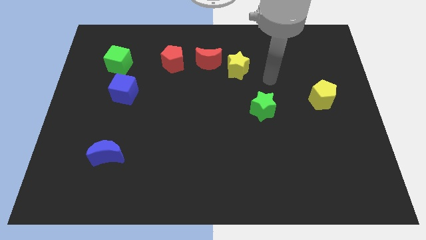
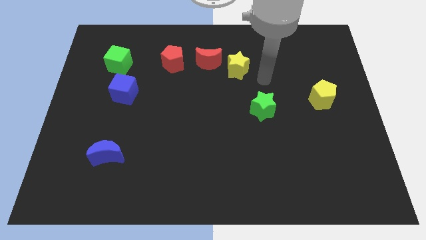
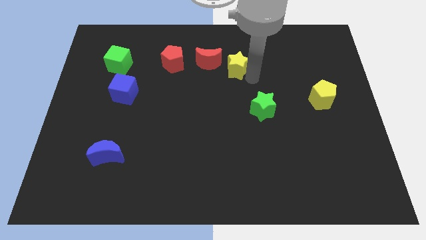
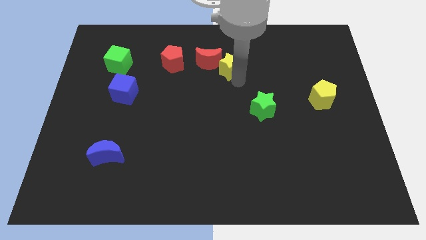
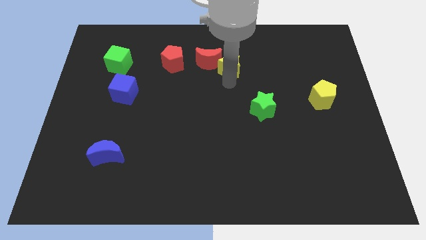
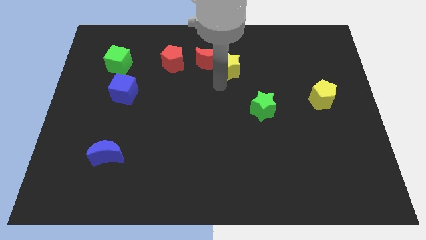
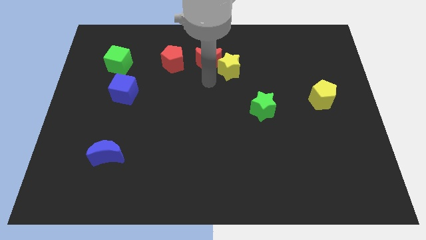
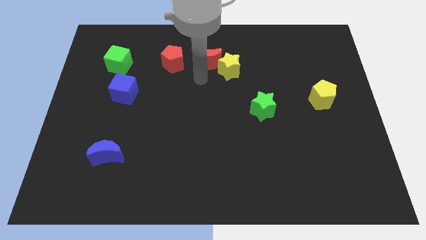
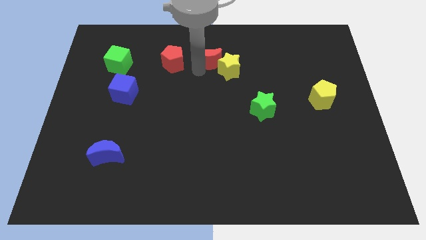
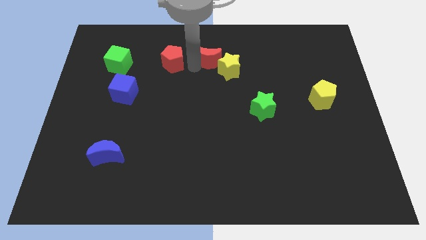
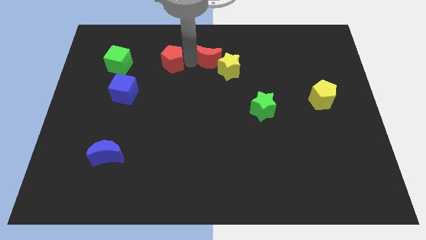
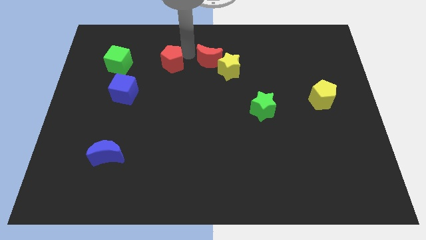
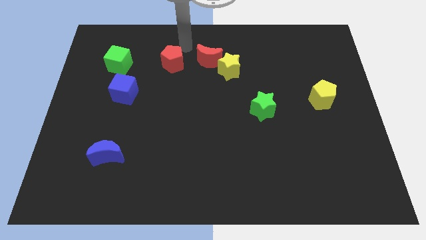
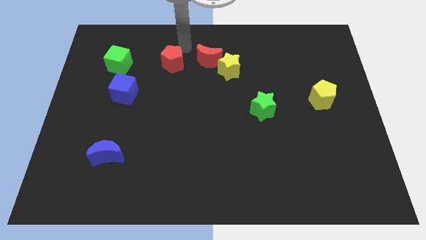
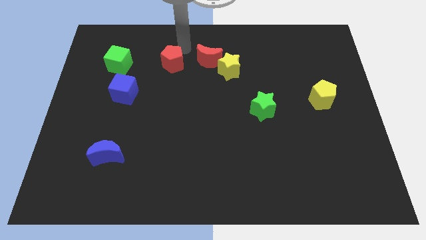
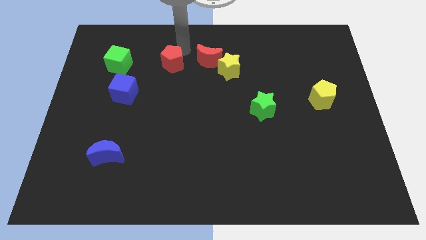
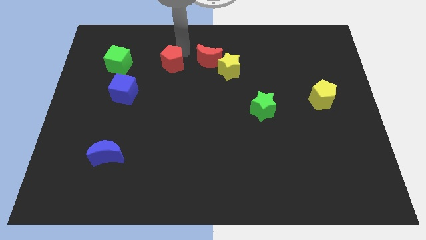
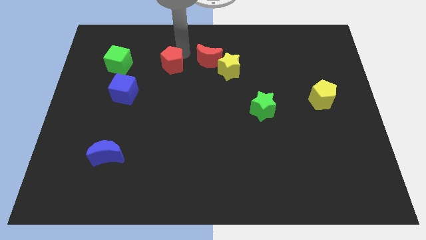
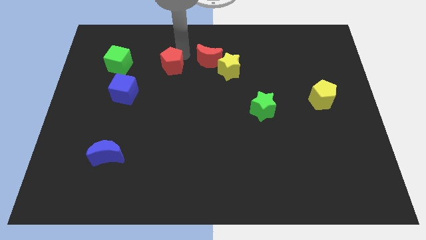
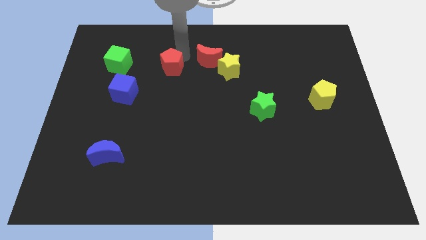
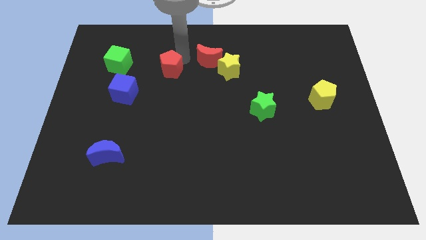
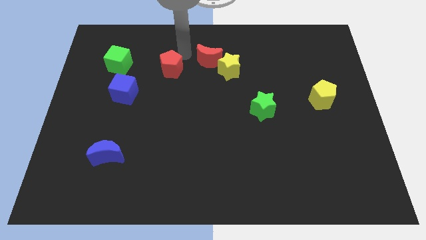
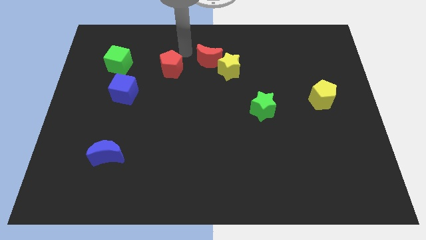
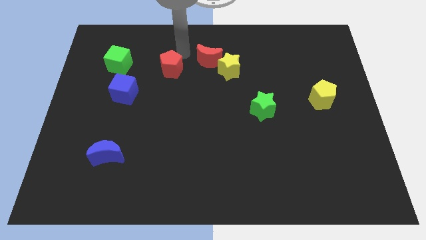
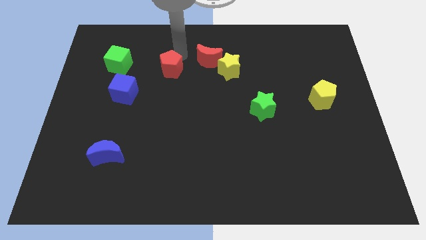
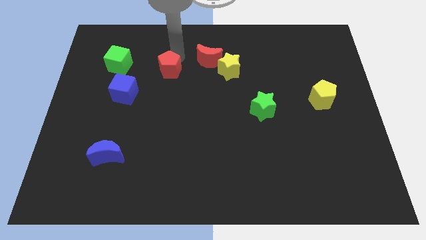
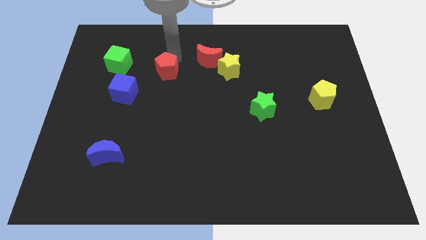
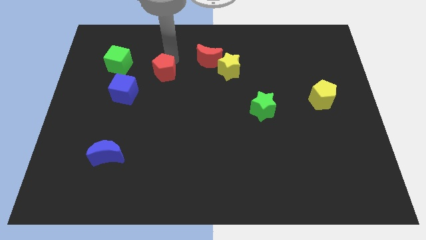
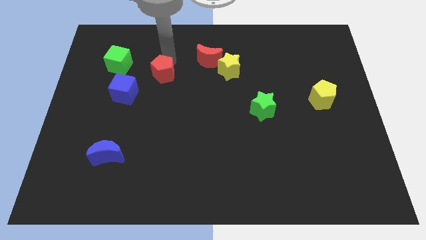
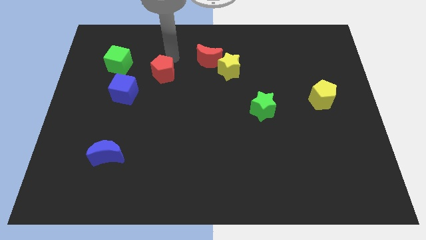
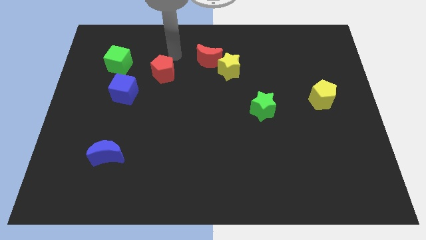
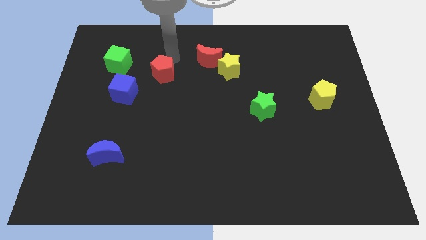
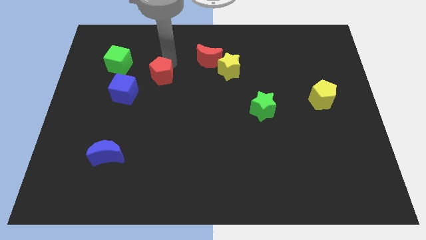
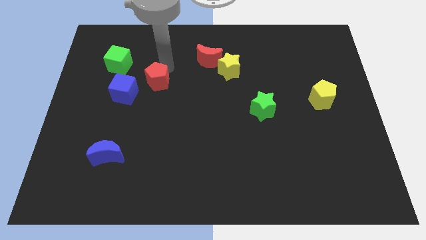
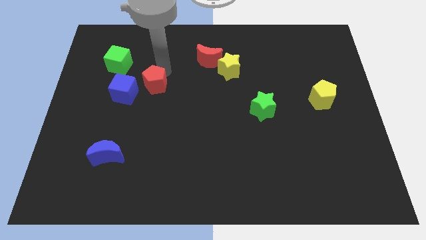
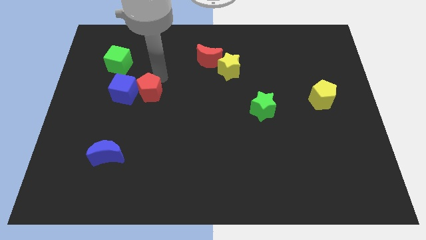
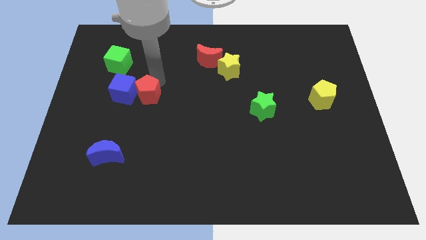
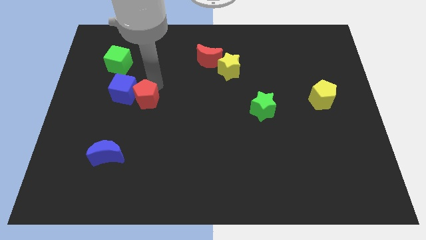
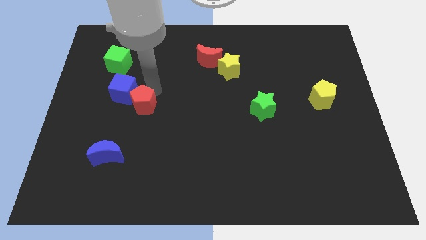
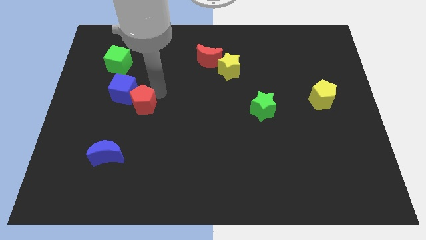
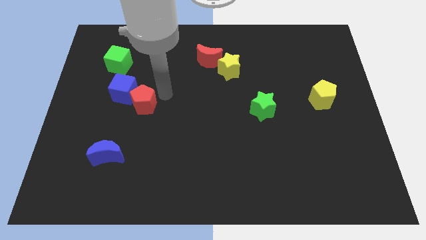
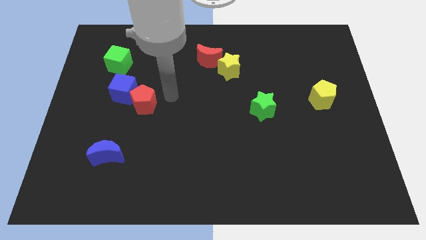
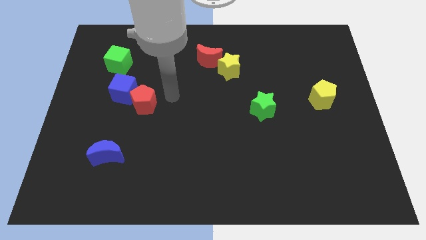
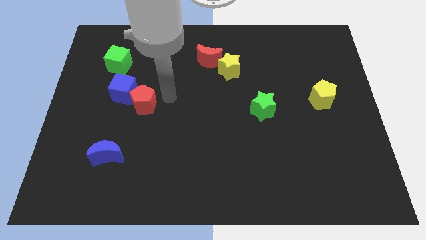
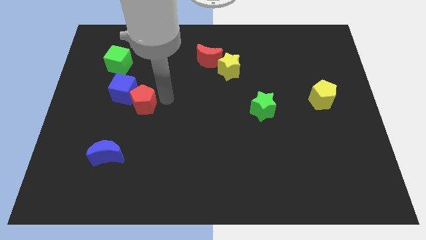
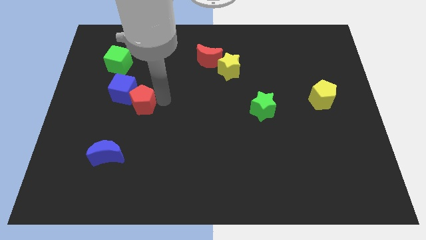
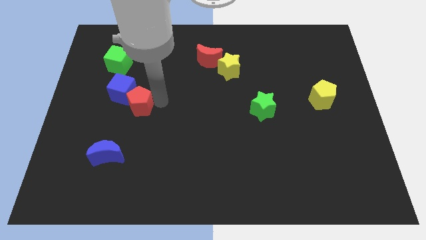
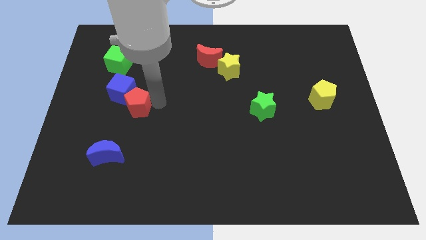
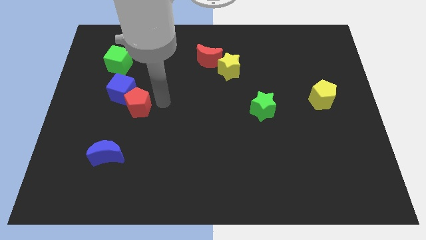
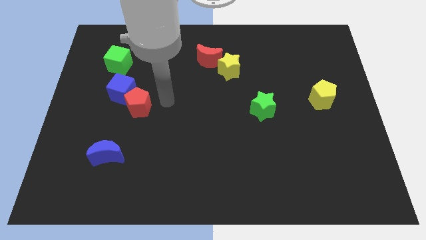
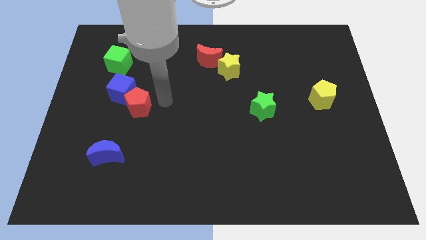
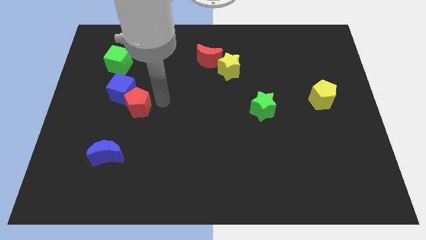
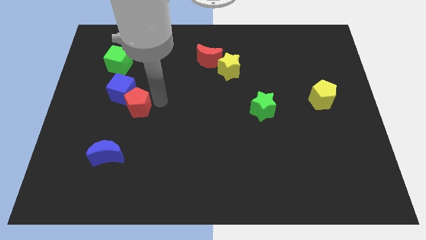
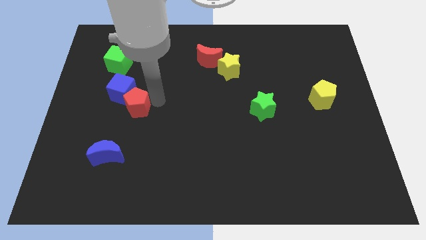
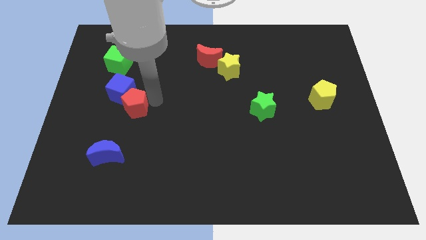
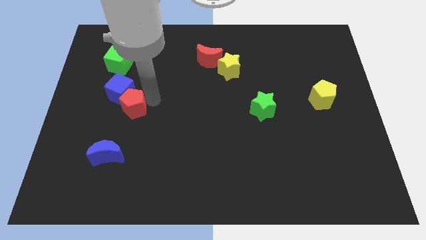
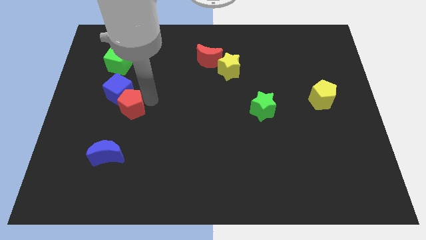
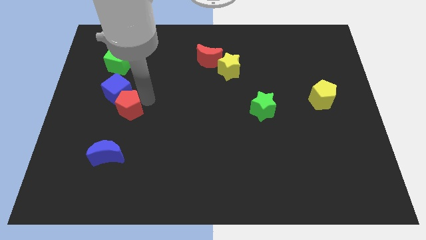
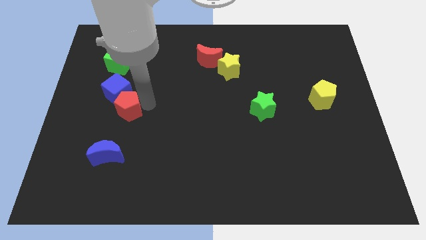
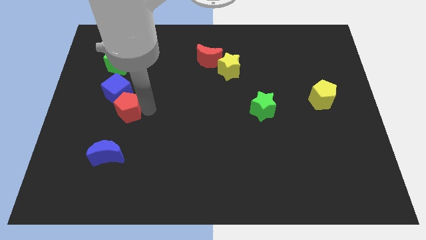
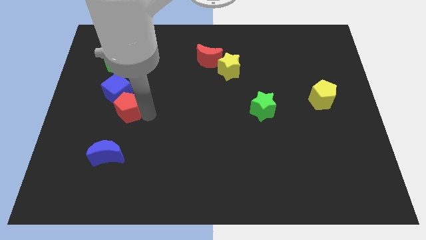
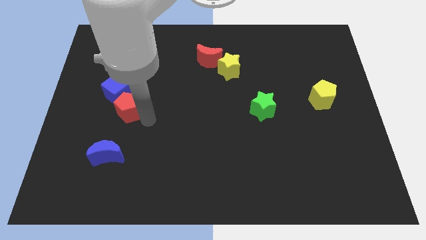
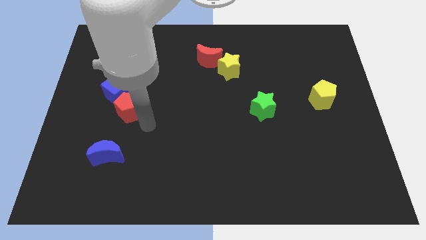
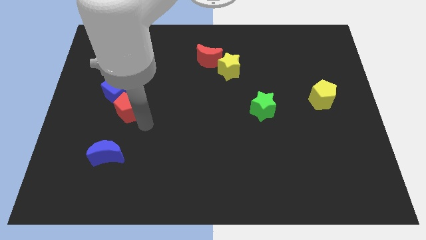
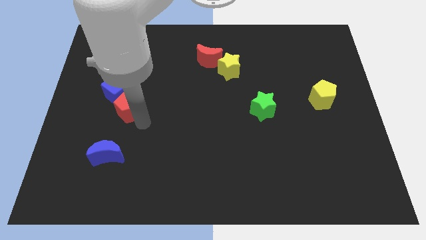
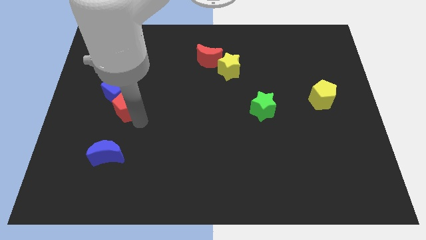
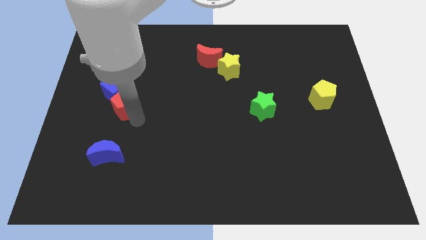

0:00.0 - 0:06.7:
push the red pentagon to the bottom of the green cube
